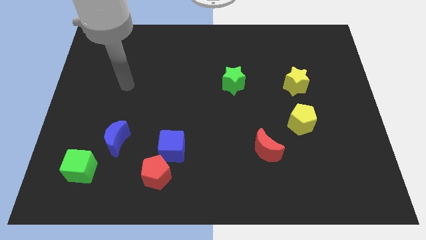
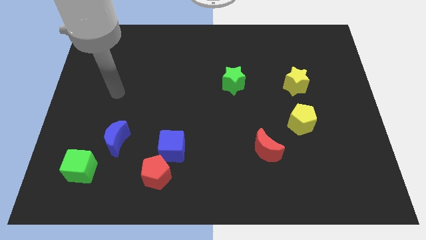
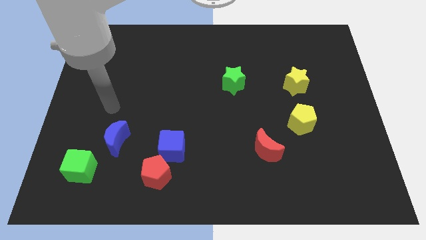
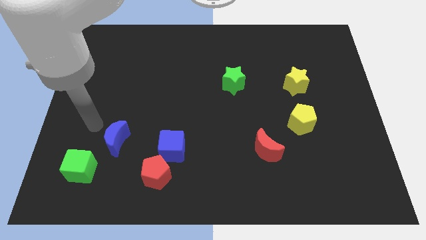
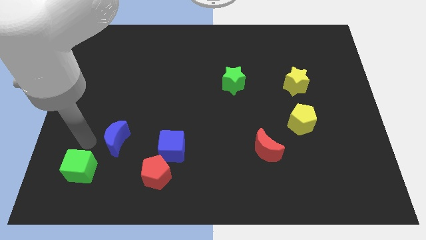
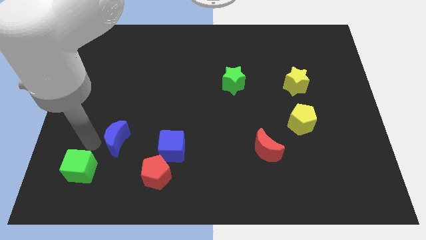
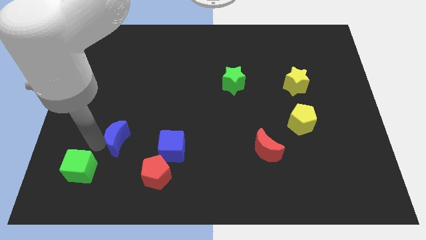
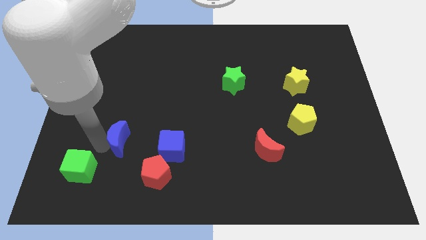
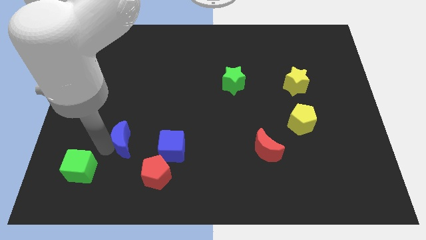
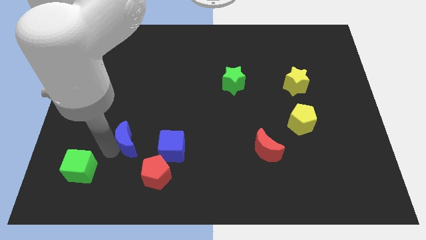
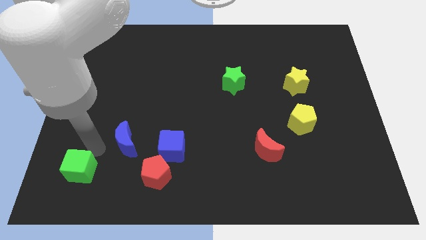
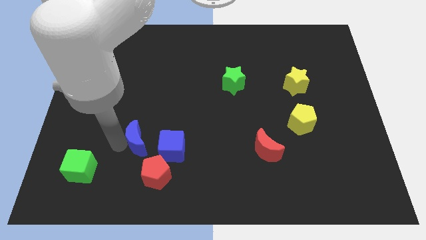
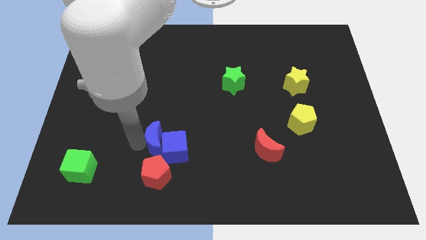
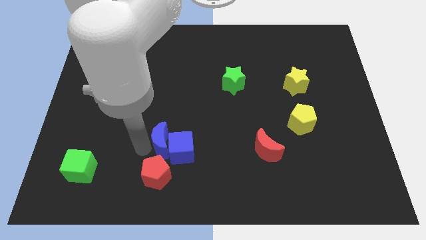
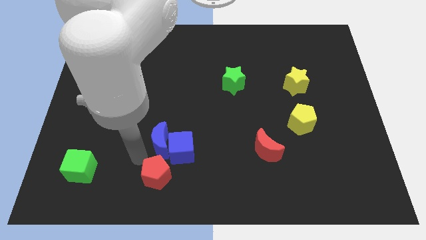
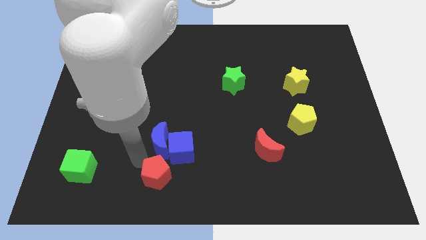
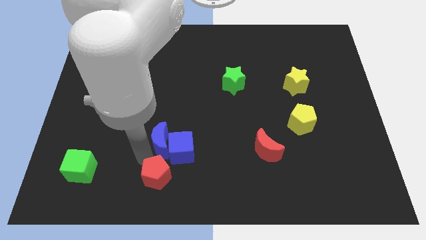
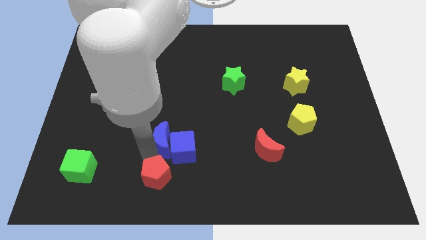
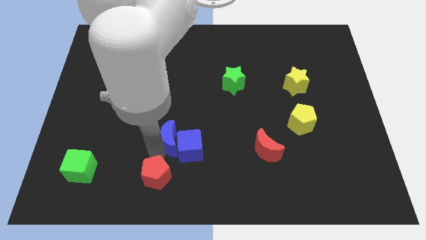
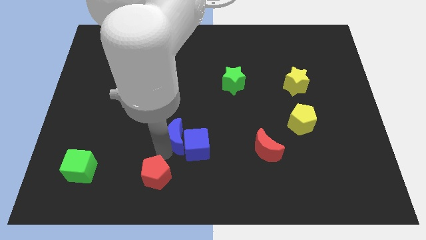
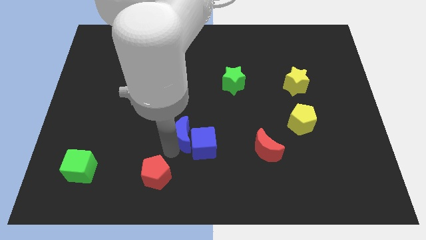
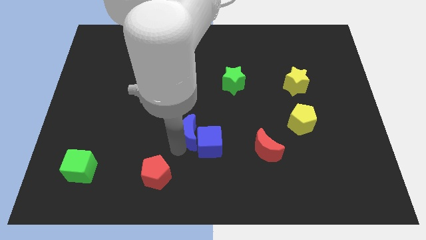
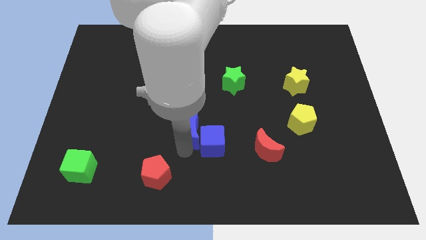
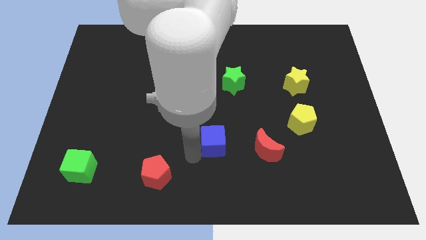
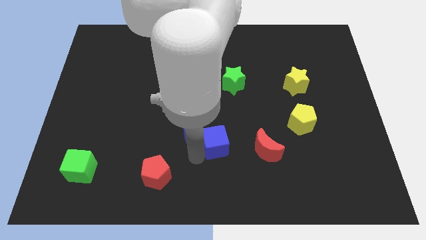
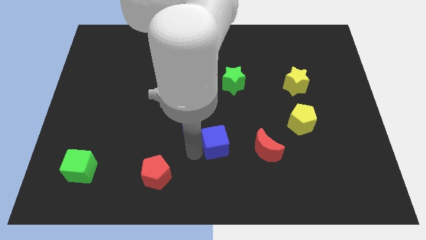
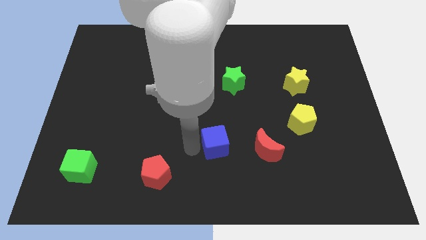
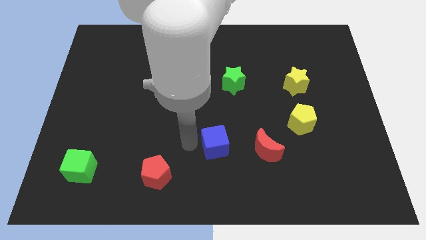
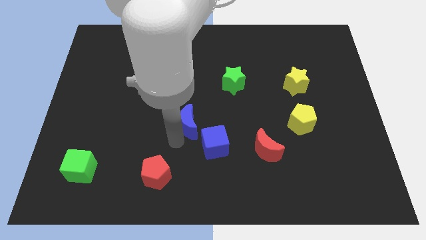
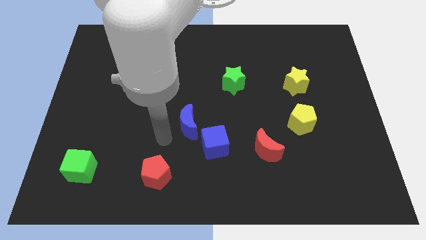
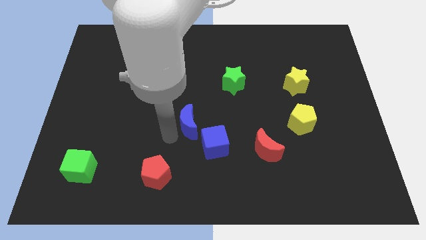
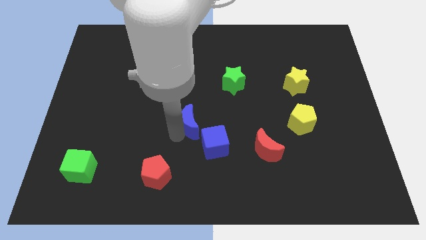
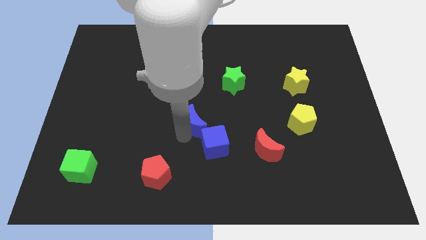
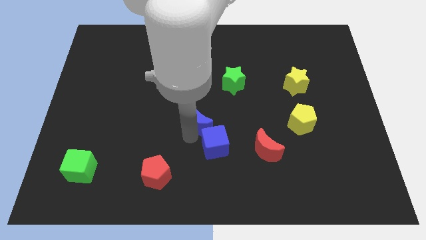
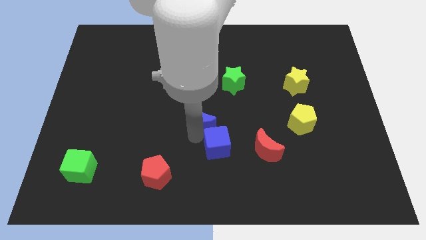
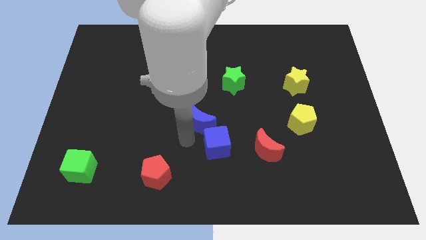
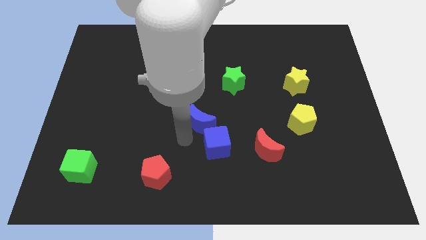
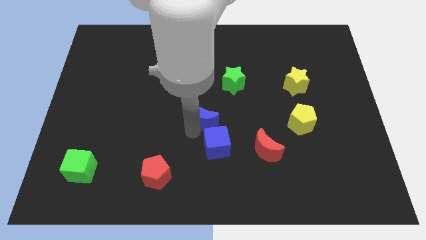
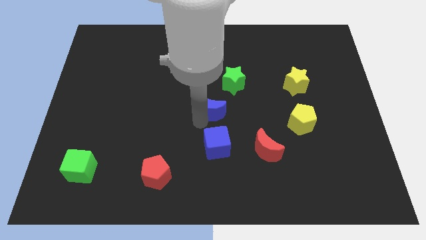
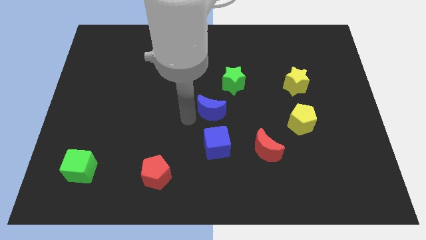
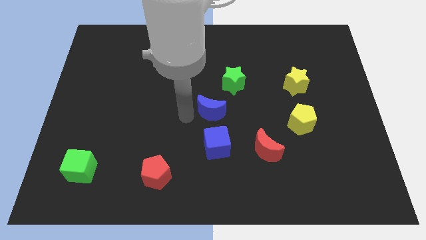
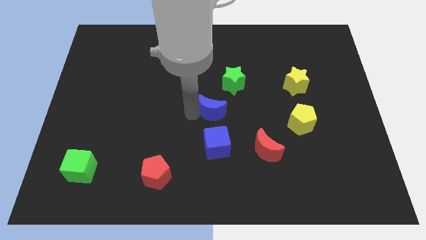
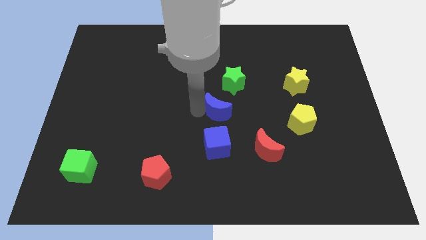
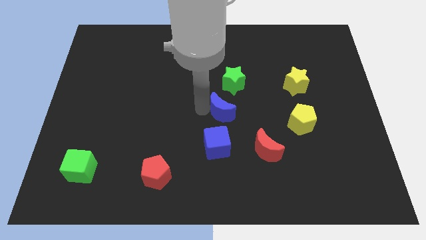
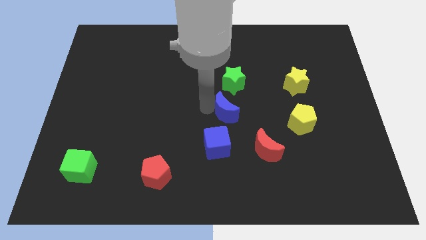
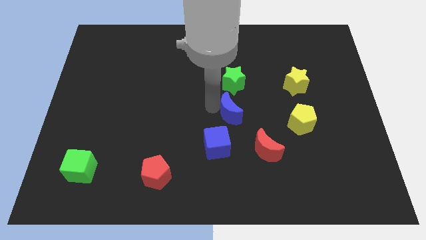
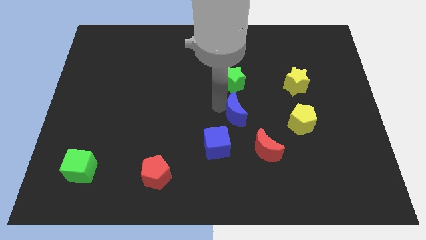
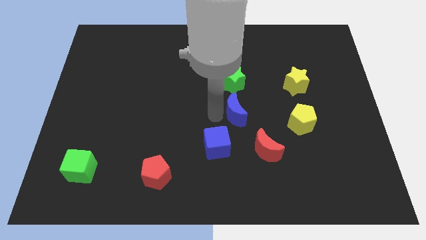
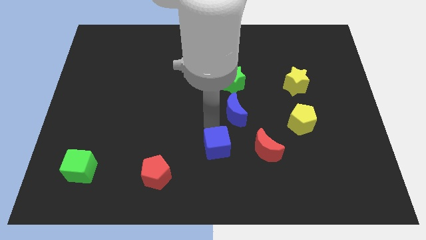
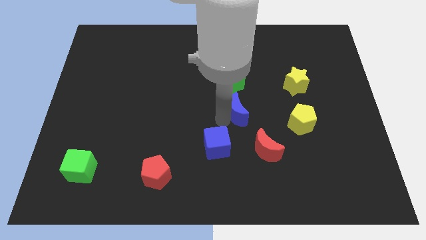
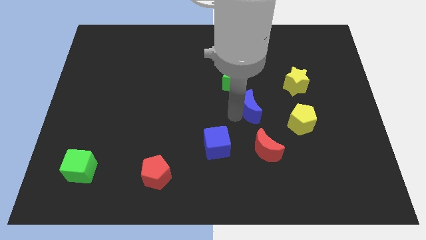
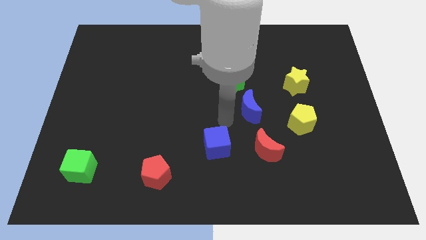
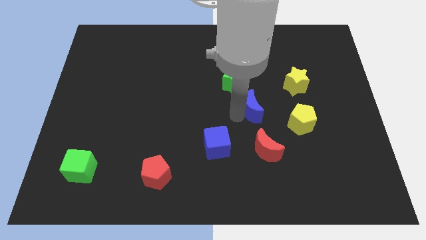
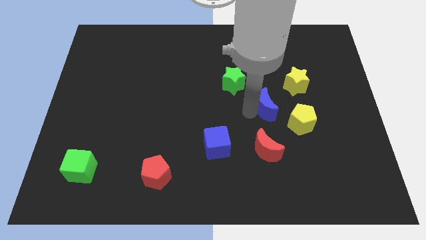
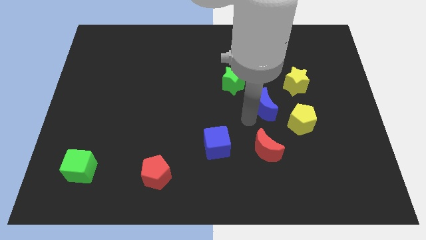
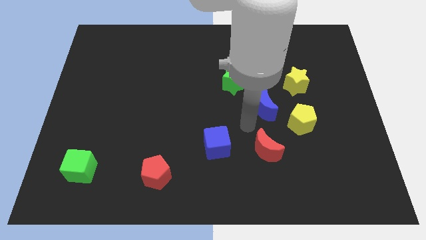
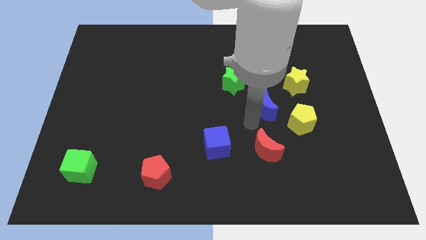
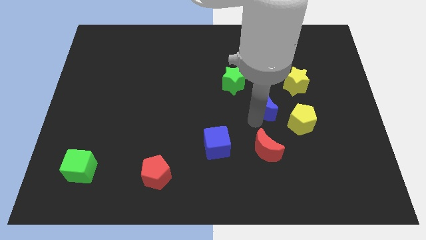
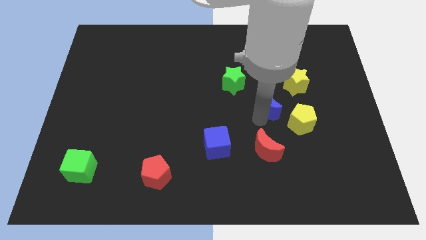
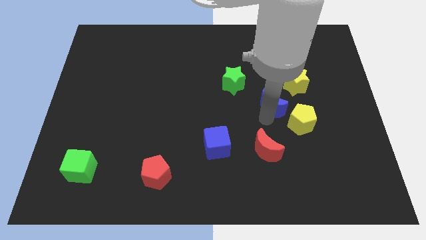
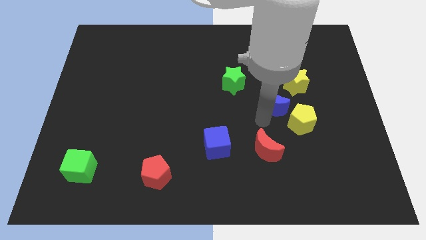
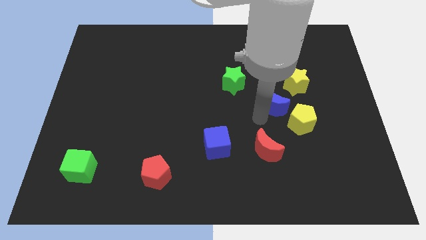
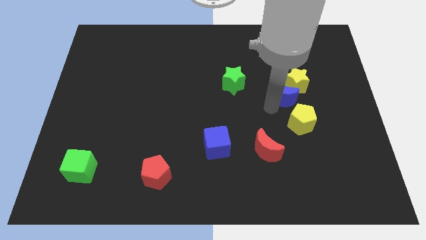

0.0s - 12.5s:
slide the blue moon towards the yellow star
